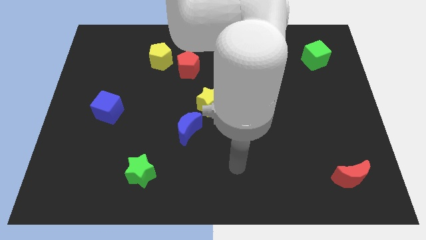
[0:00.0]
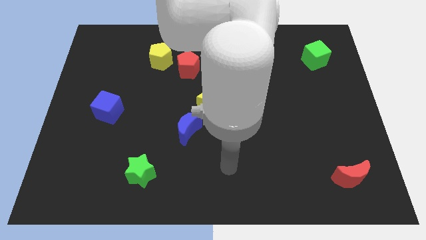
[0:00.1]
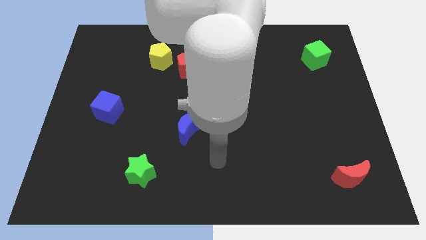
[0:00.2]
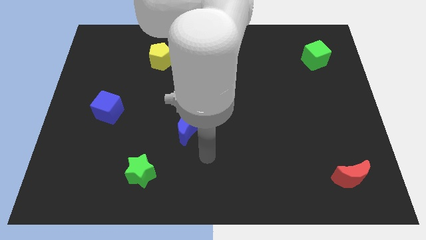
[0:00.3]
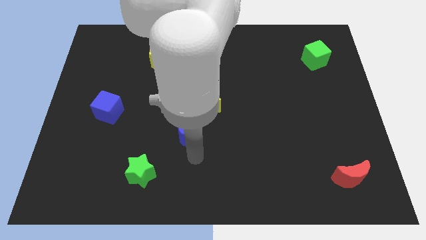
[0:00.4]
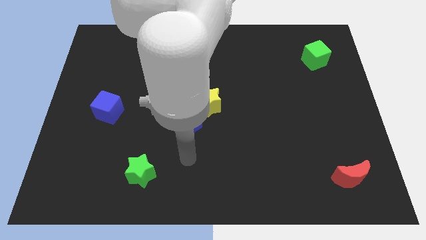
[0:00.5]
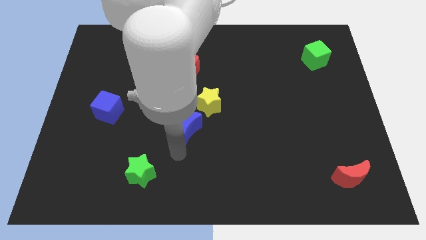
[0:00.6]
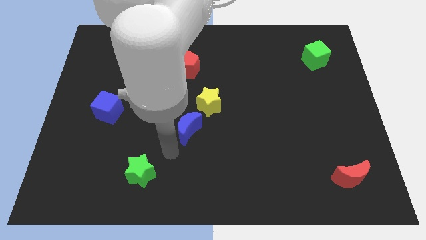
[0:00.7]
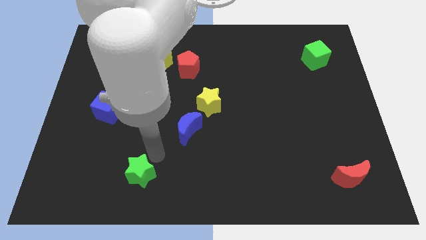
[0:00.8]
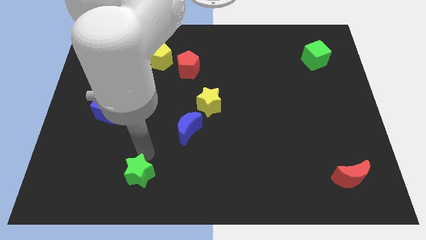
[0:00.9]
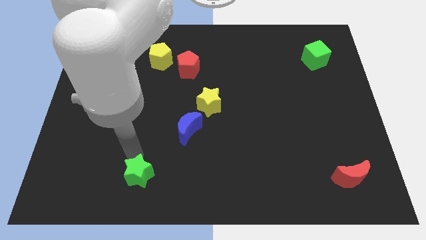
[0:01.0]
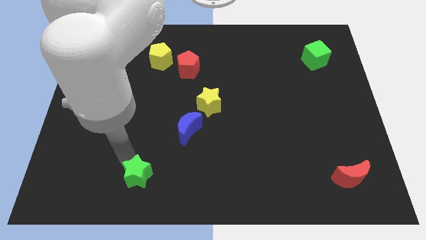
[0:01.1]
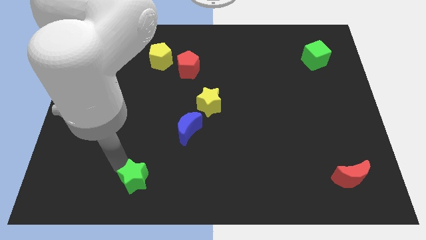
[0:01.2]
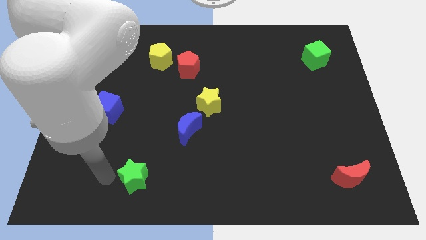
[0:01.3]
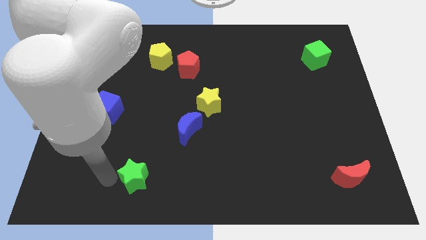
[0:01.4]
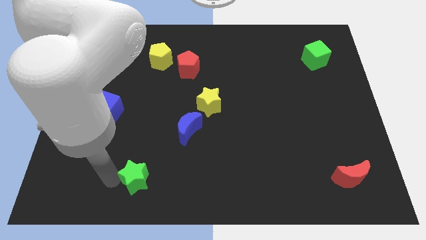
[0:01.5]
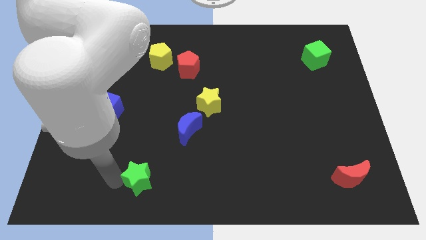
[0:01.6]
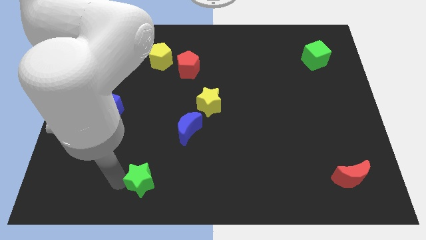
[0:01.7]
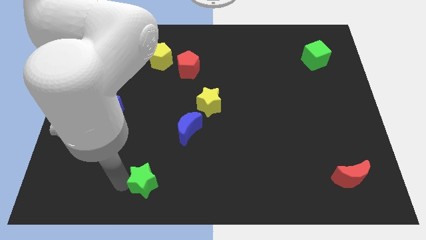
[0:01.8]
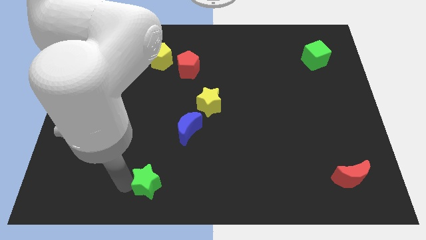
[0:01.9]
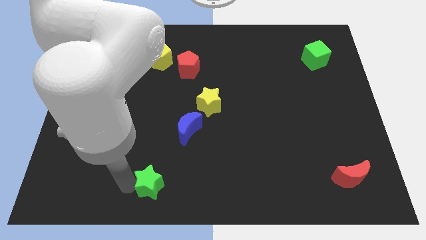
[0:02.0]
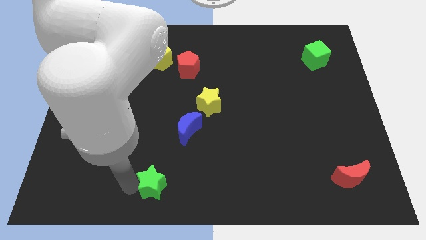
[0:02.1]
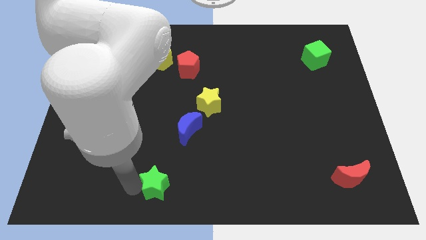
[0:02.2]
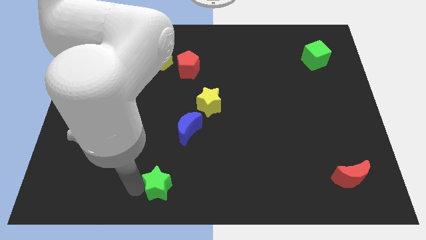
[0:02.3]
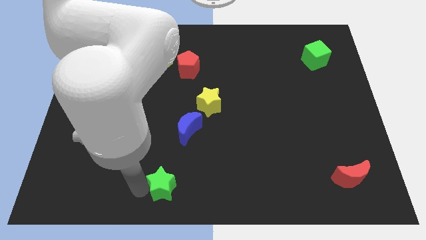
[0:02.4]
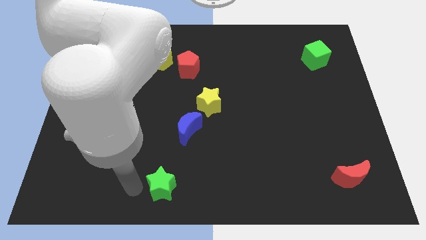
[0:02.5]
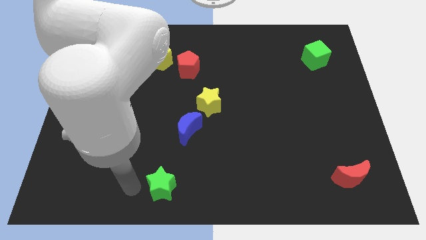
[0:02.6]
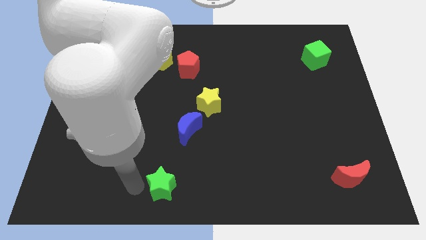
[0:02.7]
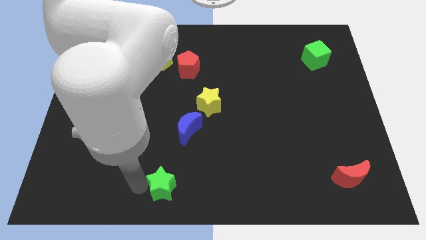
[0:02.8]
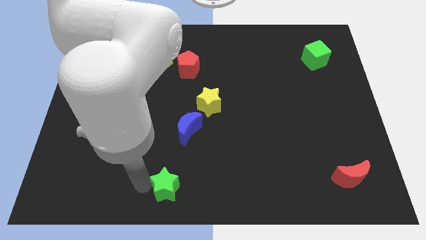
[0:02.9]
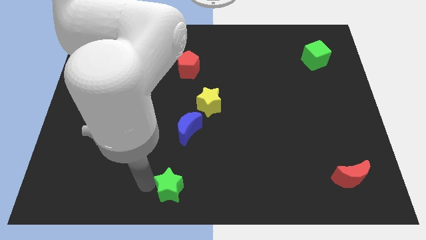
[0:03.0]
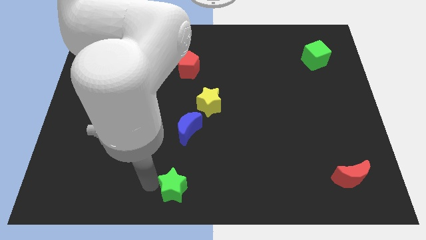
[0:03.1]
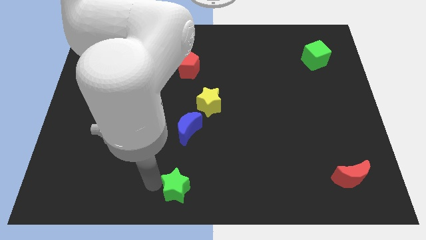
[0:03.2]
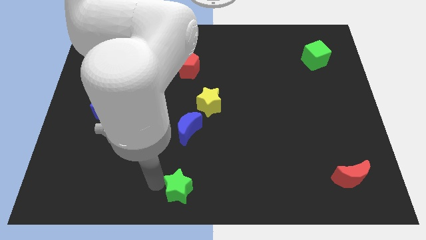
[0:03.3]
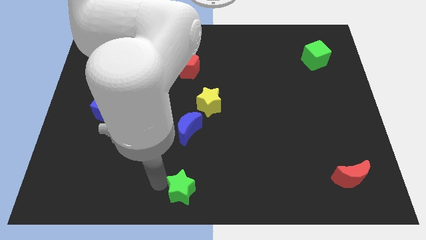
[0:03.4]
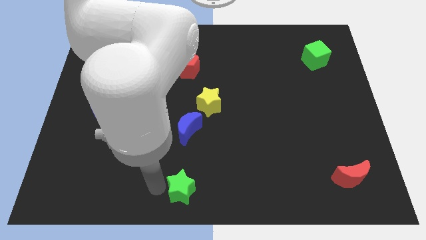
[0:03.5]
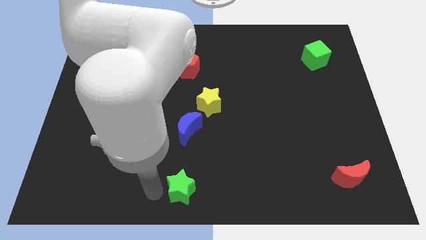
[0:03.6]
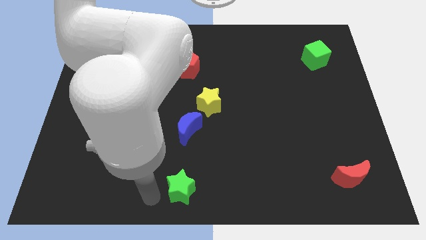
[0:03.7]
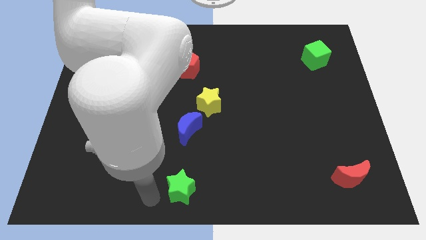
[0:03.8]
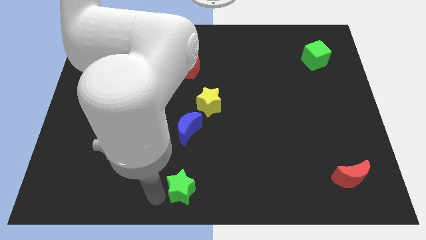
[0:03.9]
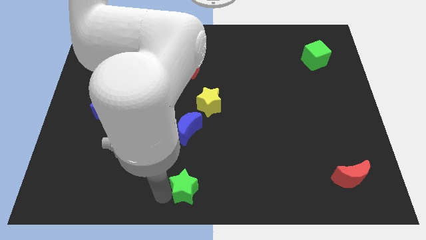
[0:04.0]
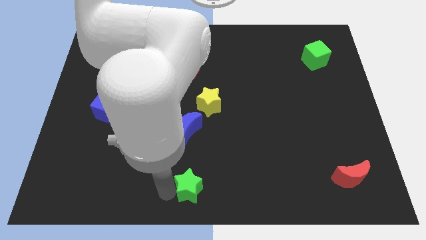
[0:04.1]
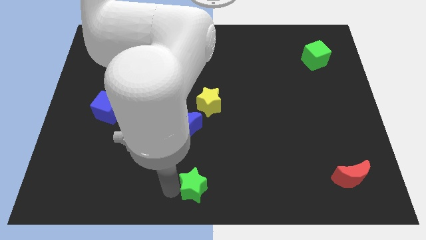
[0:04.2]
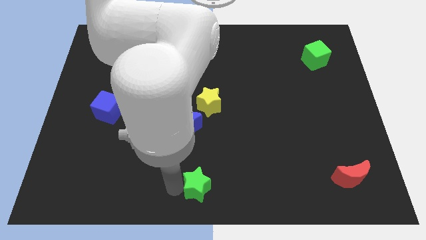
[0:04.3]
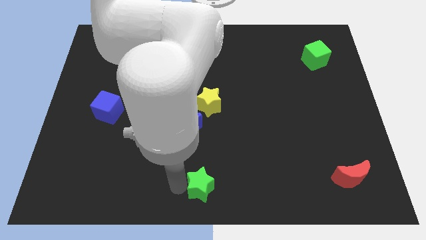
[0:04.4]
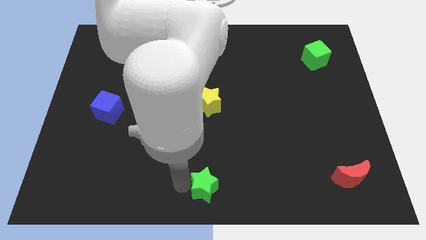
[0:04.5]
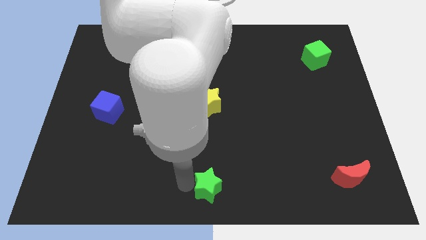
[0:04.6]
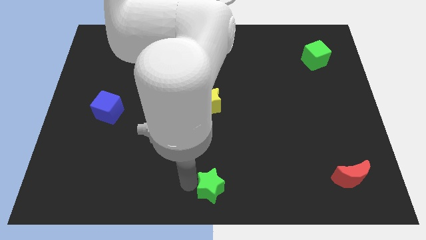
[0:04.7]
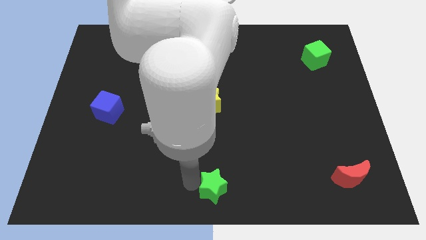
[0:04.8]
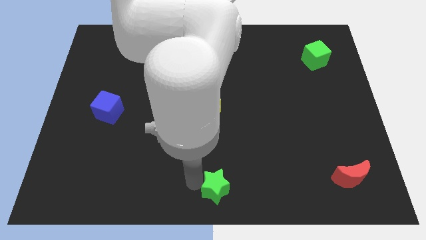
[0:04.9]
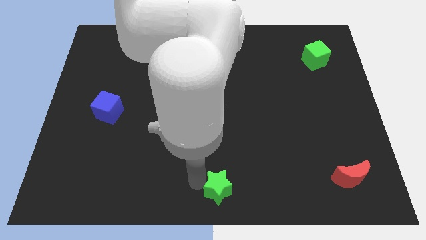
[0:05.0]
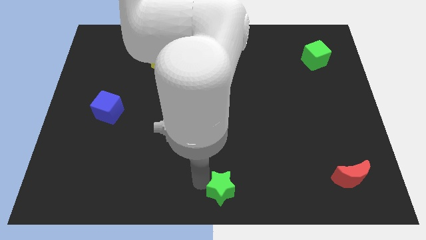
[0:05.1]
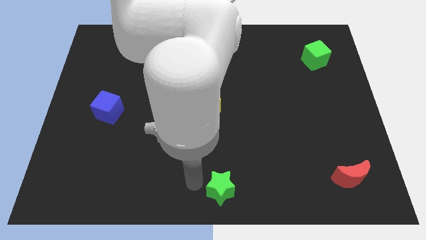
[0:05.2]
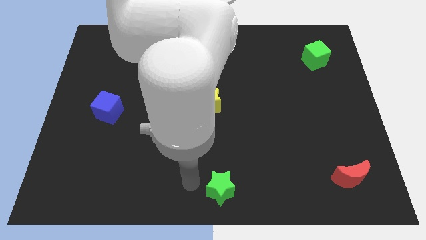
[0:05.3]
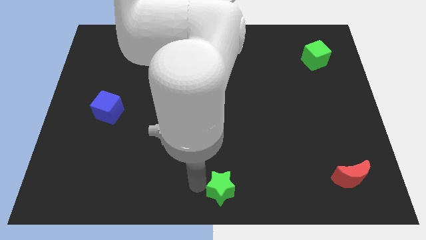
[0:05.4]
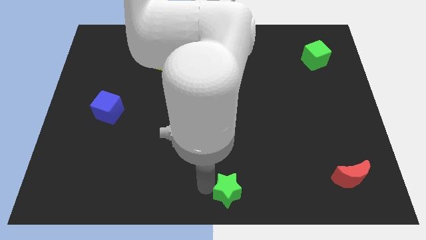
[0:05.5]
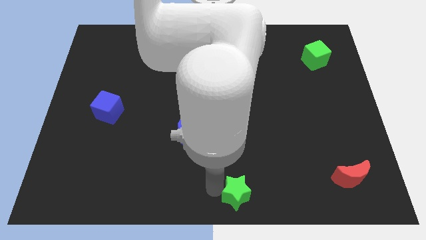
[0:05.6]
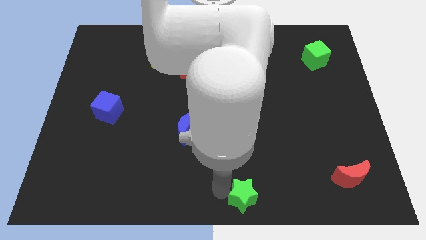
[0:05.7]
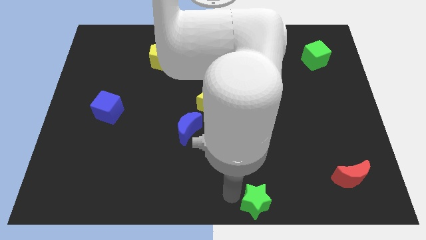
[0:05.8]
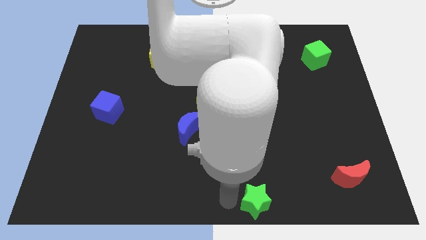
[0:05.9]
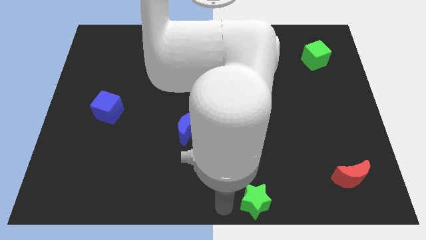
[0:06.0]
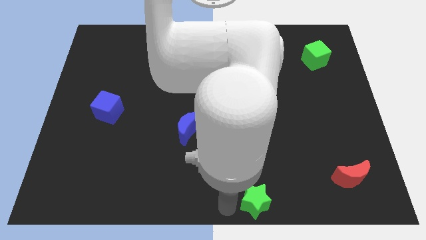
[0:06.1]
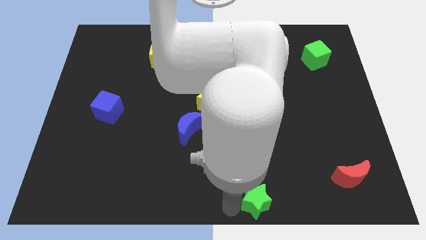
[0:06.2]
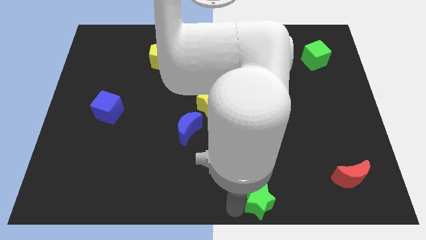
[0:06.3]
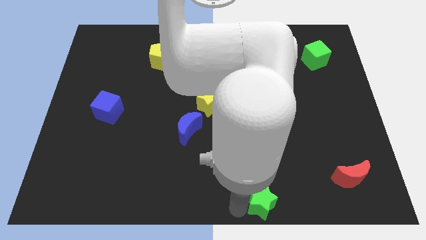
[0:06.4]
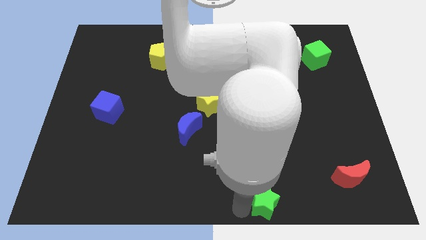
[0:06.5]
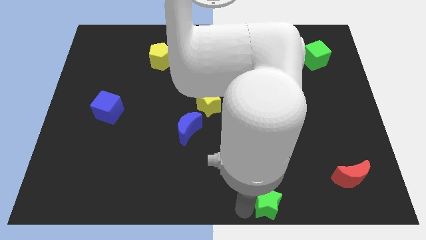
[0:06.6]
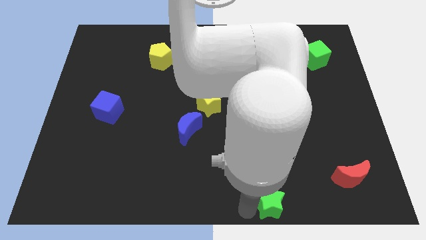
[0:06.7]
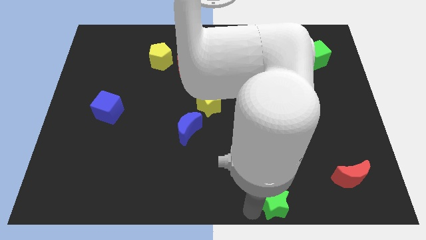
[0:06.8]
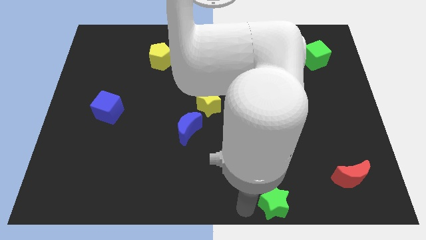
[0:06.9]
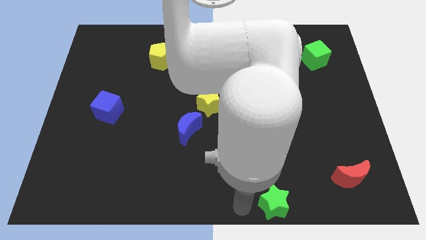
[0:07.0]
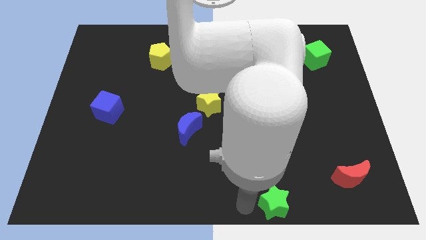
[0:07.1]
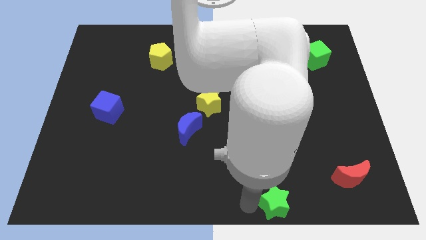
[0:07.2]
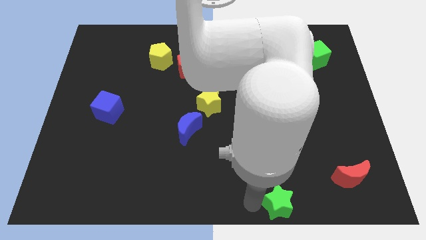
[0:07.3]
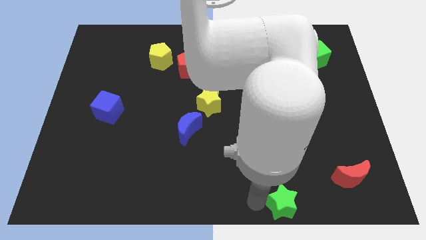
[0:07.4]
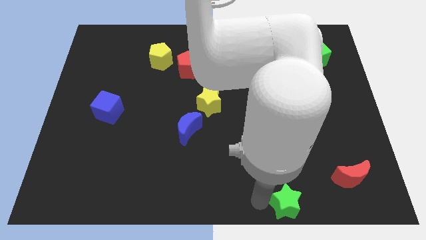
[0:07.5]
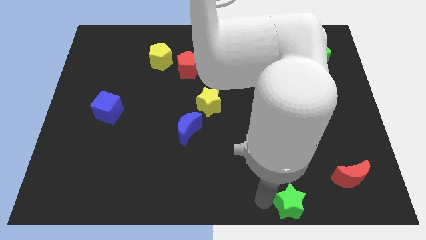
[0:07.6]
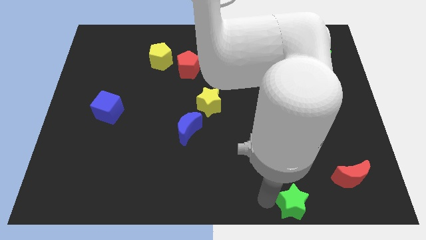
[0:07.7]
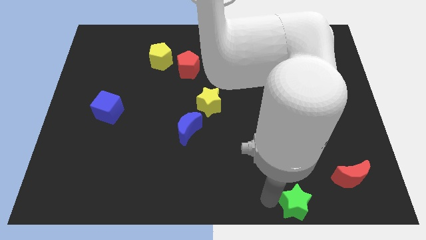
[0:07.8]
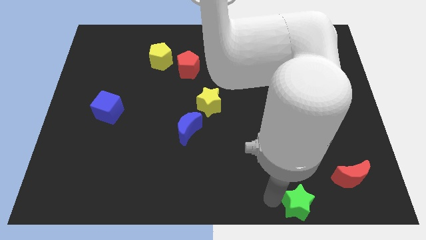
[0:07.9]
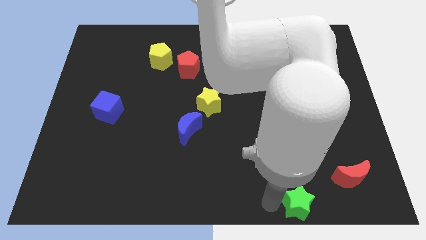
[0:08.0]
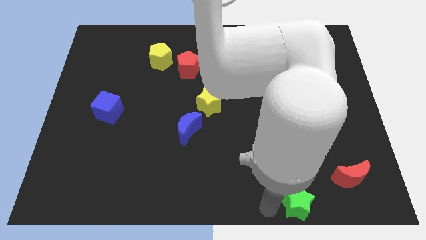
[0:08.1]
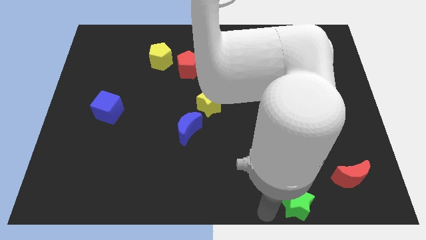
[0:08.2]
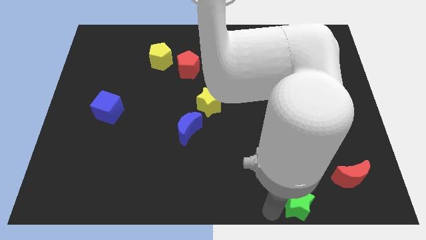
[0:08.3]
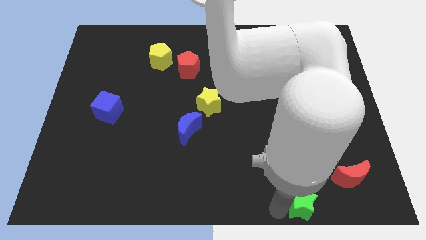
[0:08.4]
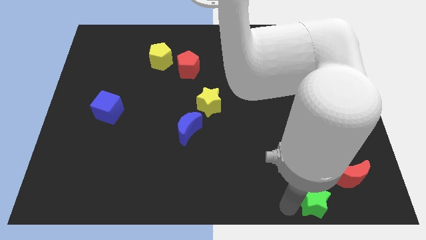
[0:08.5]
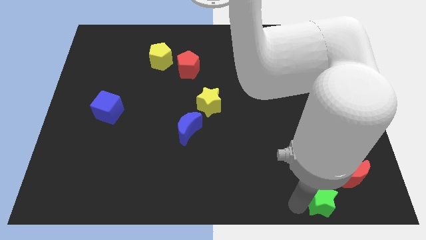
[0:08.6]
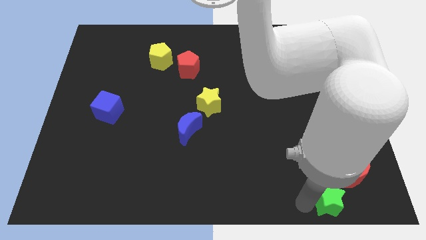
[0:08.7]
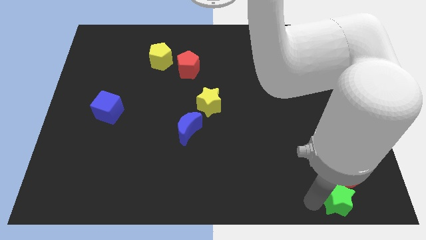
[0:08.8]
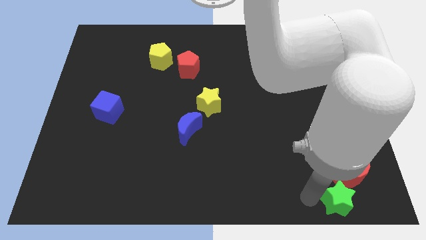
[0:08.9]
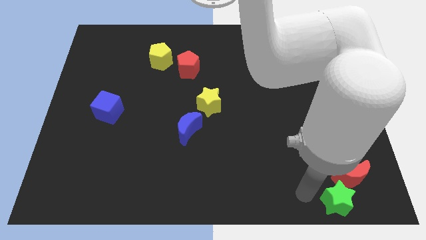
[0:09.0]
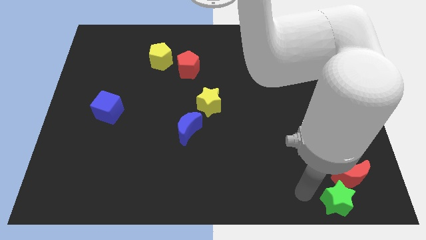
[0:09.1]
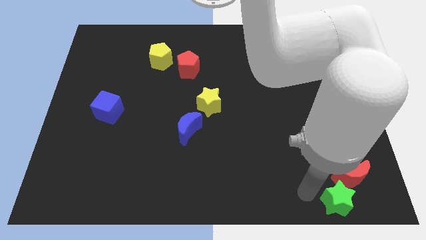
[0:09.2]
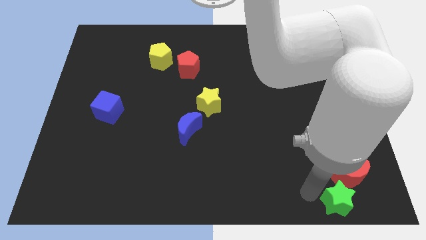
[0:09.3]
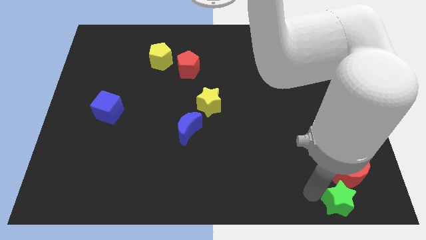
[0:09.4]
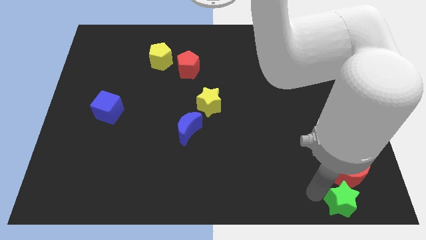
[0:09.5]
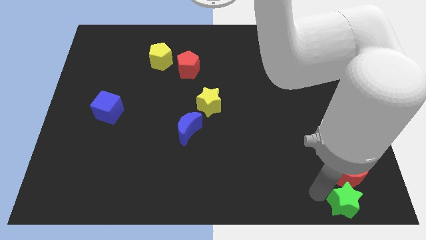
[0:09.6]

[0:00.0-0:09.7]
slide the green star to the lower right corner
